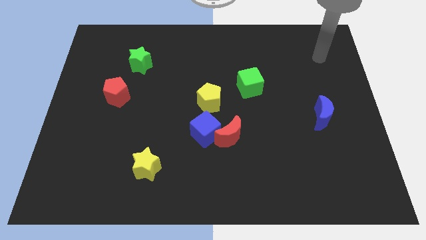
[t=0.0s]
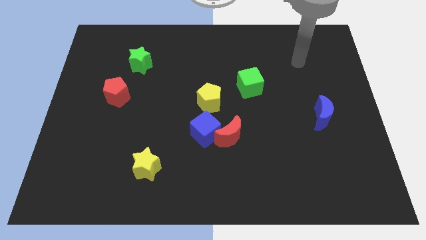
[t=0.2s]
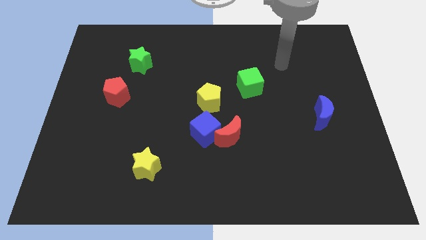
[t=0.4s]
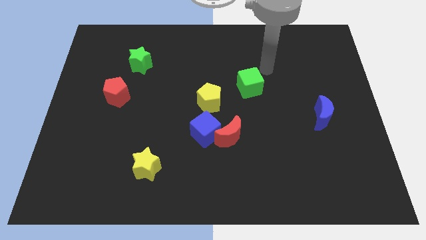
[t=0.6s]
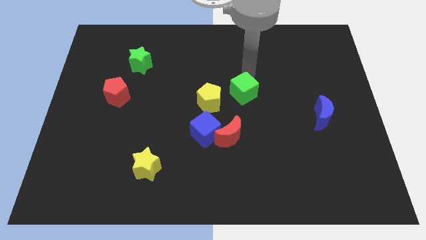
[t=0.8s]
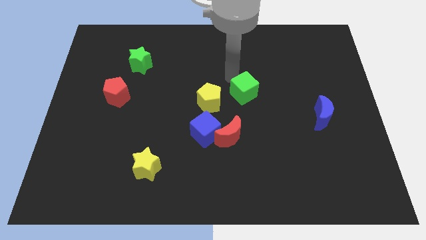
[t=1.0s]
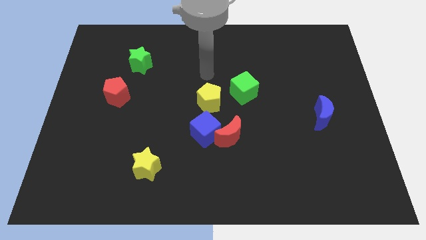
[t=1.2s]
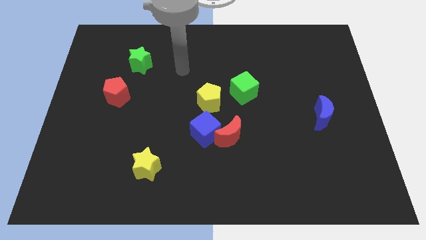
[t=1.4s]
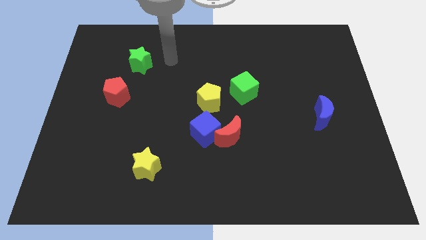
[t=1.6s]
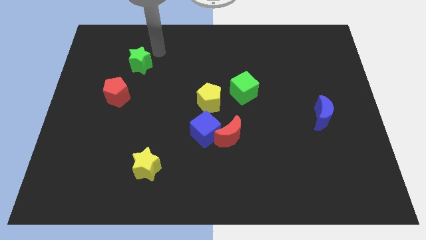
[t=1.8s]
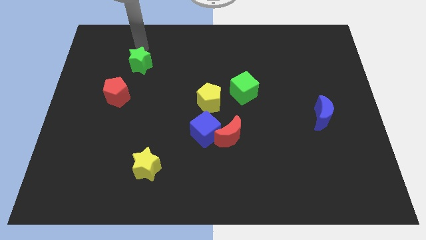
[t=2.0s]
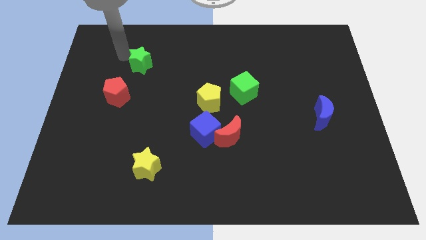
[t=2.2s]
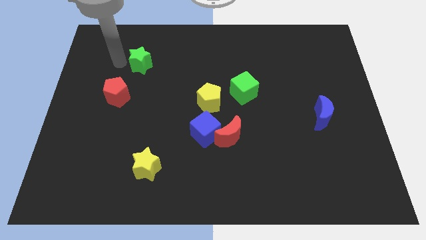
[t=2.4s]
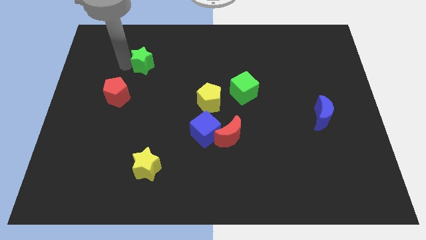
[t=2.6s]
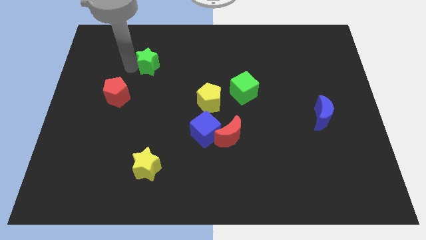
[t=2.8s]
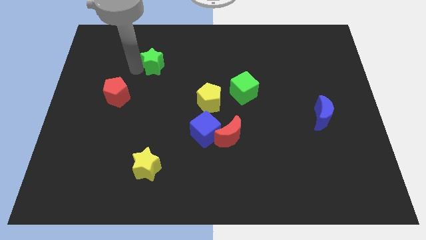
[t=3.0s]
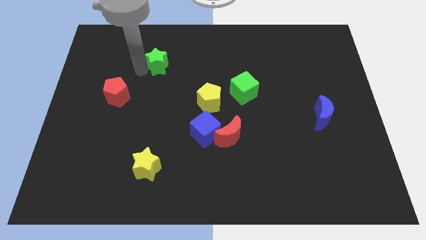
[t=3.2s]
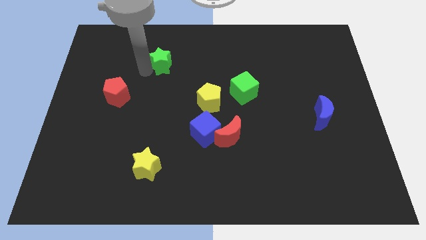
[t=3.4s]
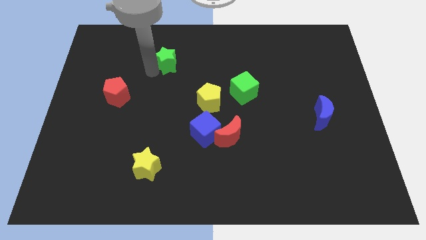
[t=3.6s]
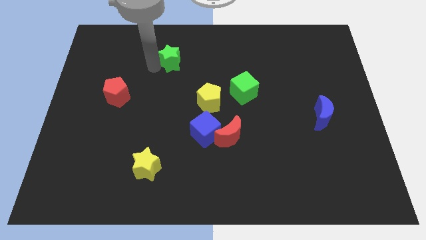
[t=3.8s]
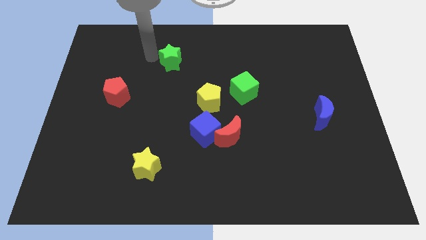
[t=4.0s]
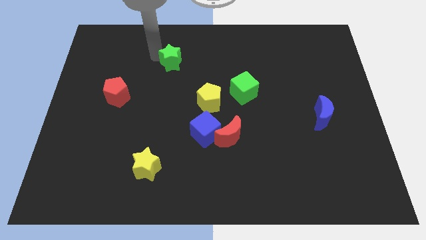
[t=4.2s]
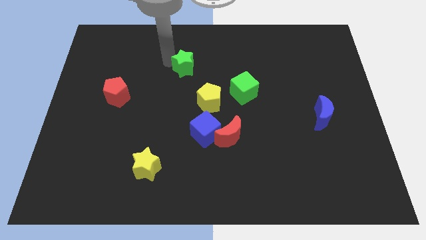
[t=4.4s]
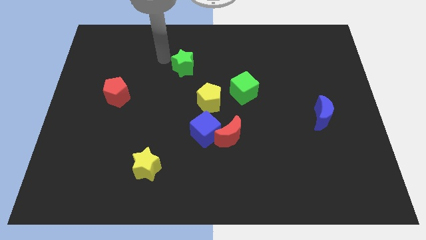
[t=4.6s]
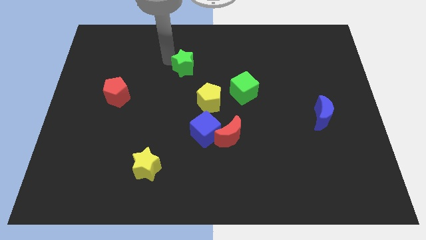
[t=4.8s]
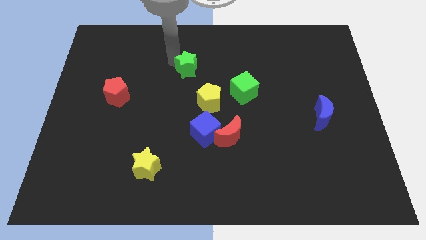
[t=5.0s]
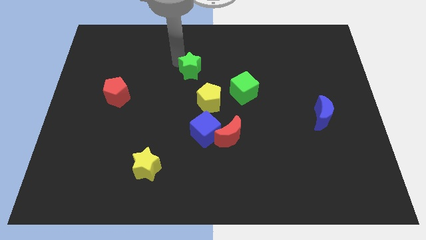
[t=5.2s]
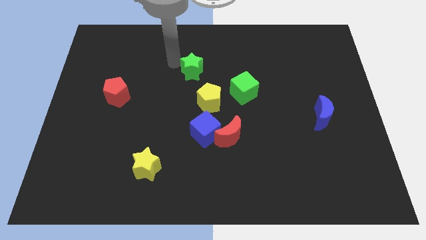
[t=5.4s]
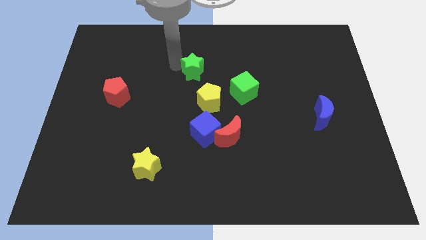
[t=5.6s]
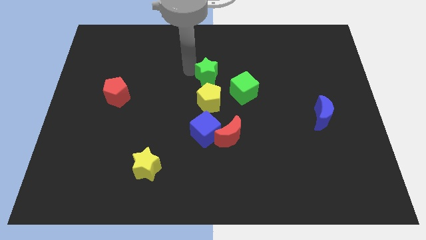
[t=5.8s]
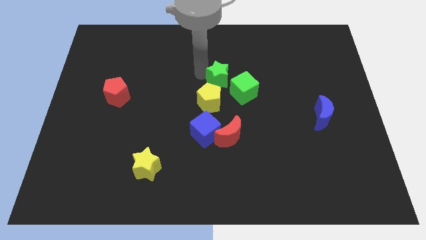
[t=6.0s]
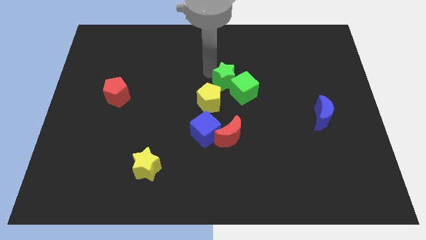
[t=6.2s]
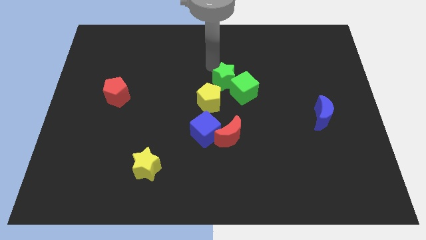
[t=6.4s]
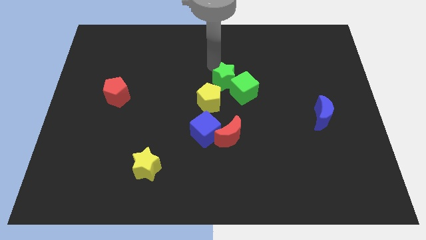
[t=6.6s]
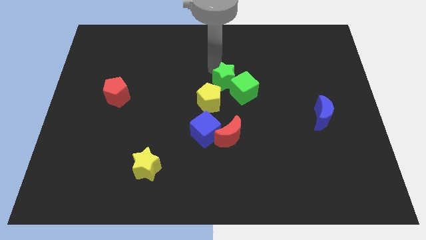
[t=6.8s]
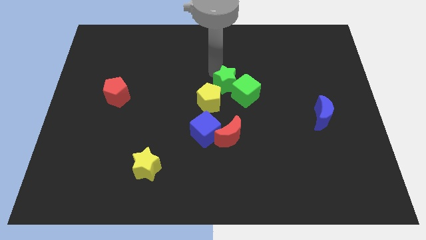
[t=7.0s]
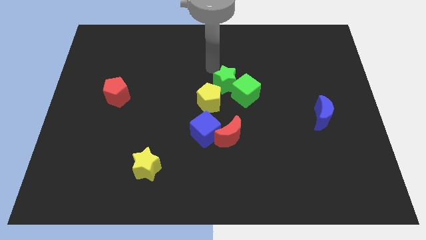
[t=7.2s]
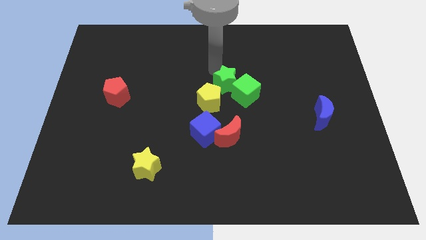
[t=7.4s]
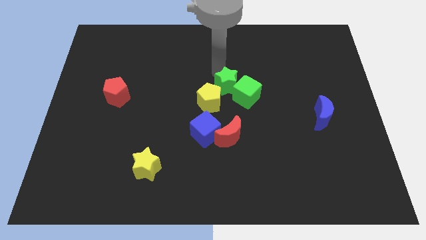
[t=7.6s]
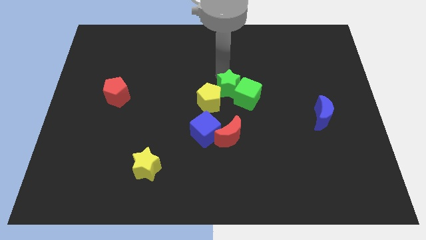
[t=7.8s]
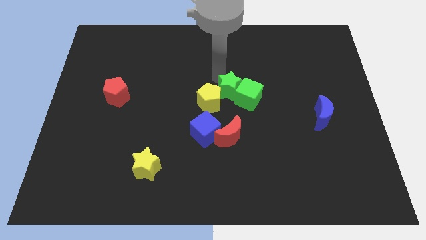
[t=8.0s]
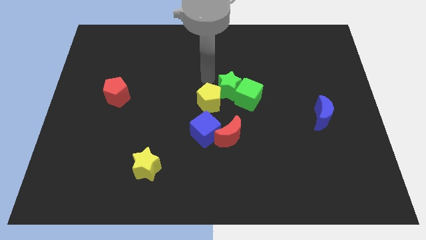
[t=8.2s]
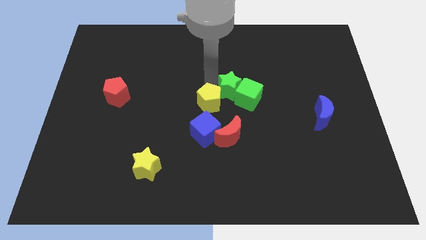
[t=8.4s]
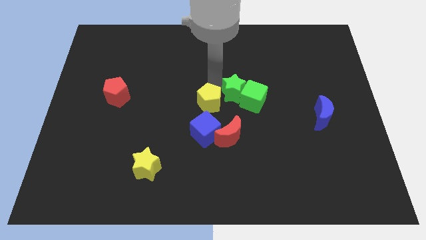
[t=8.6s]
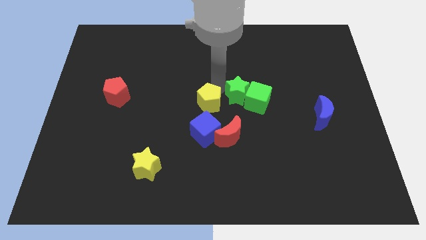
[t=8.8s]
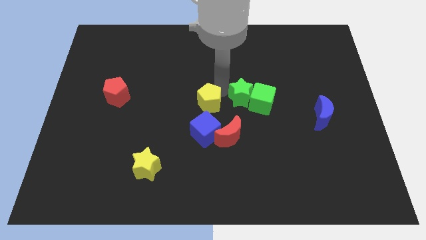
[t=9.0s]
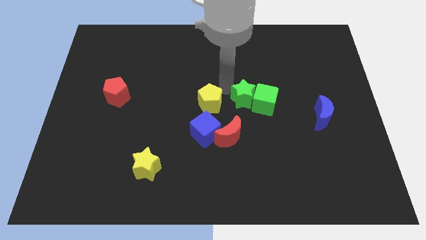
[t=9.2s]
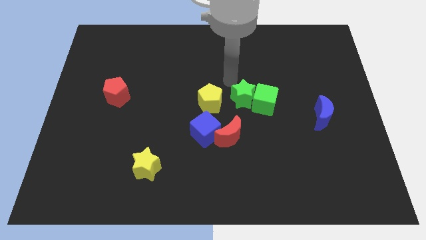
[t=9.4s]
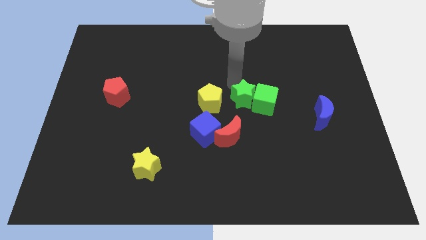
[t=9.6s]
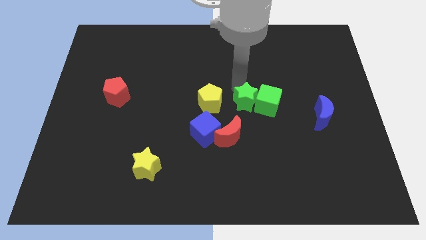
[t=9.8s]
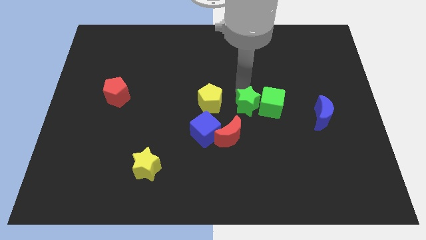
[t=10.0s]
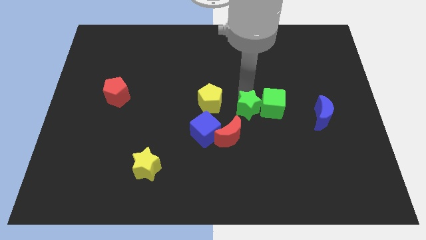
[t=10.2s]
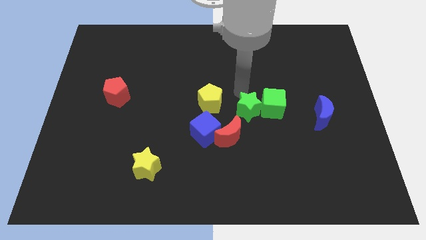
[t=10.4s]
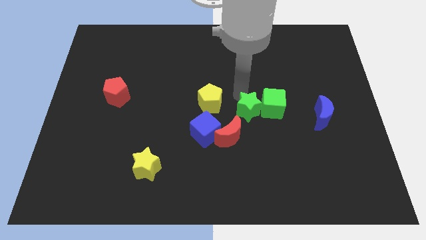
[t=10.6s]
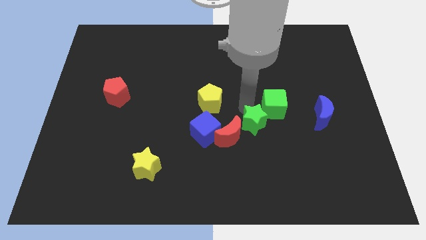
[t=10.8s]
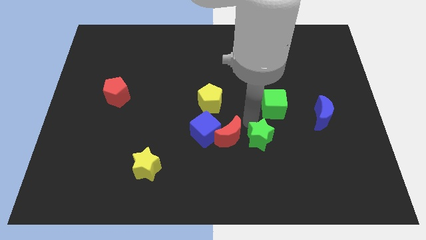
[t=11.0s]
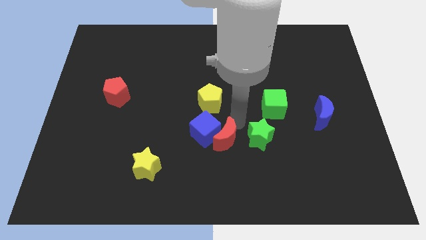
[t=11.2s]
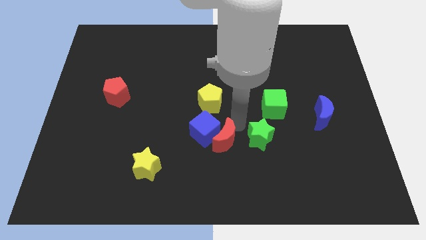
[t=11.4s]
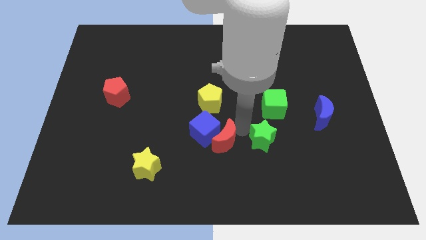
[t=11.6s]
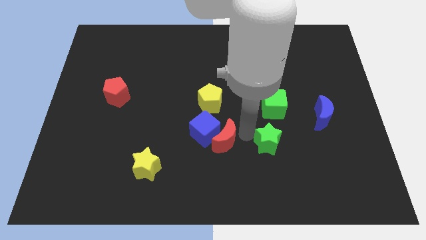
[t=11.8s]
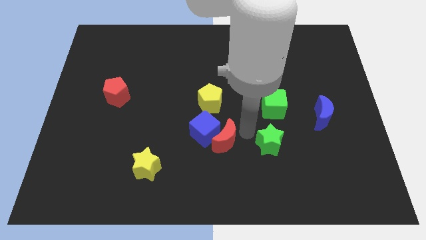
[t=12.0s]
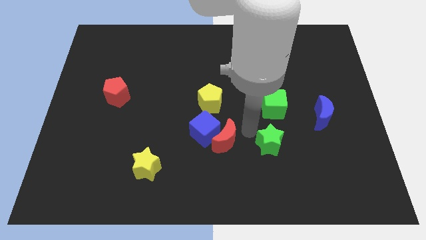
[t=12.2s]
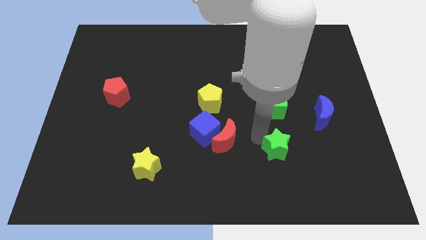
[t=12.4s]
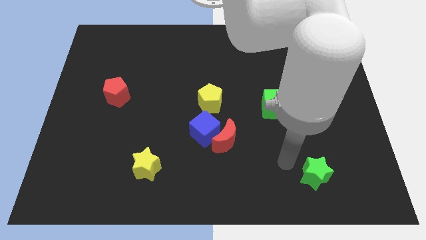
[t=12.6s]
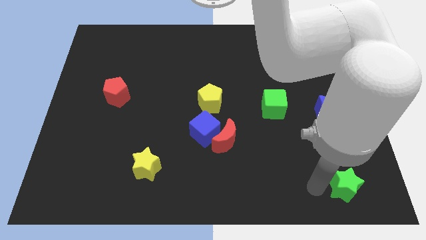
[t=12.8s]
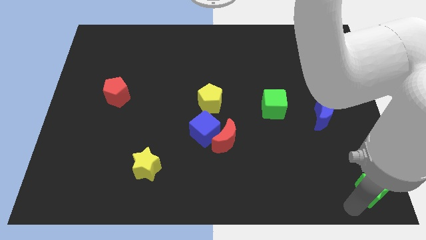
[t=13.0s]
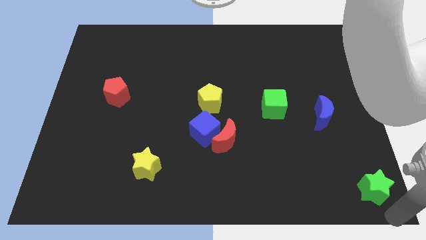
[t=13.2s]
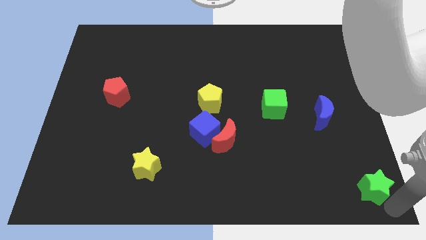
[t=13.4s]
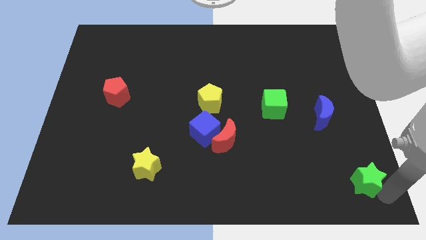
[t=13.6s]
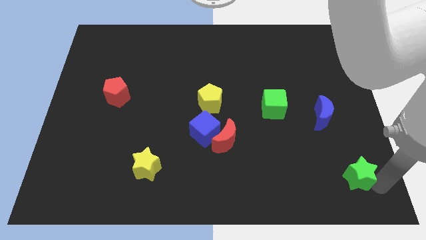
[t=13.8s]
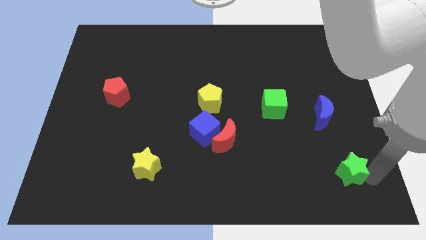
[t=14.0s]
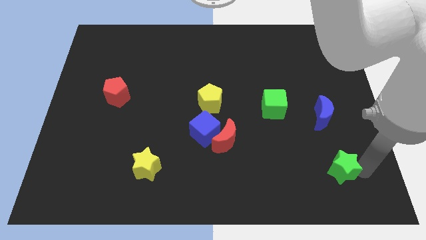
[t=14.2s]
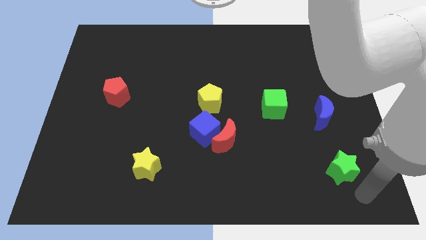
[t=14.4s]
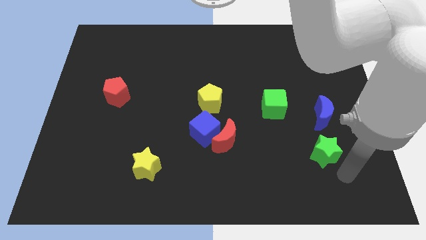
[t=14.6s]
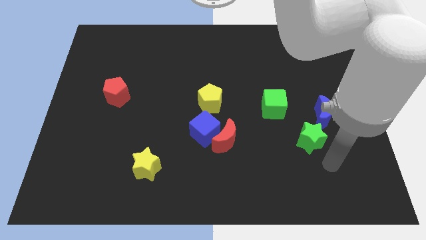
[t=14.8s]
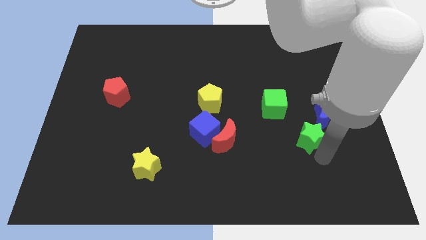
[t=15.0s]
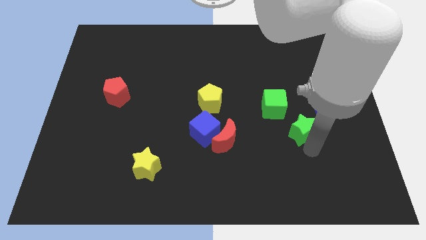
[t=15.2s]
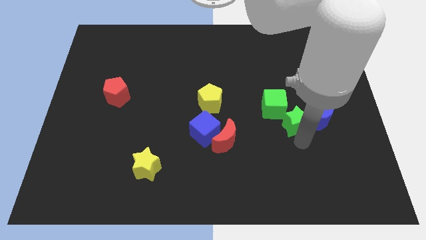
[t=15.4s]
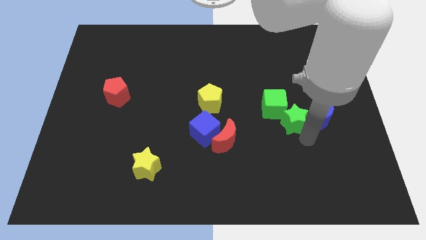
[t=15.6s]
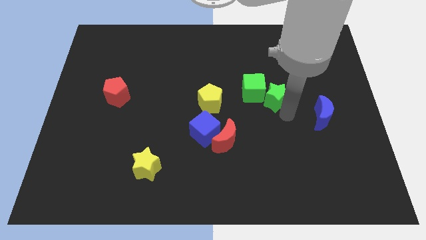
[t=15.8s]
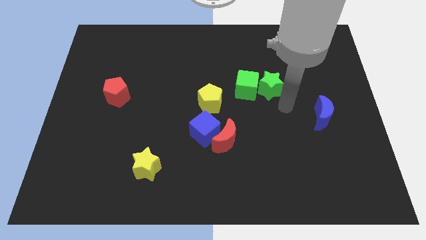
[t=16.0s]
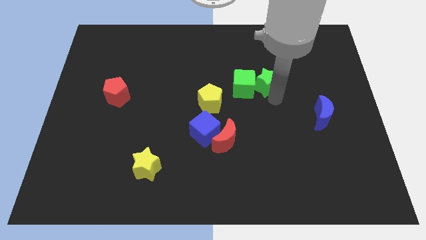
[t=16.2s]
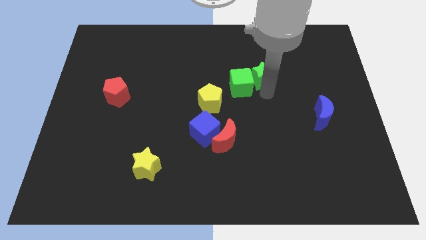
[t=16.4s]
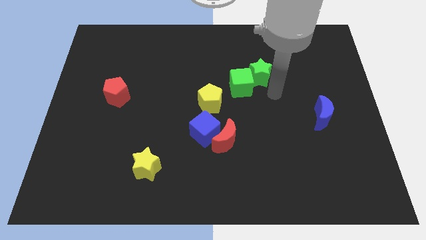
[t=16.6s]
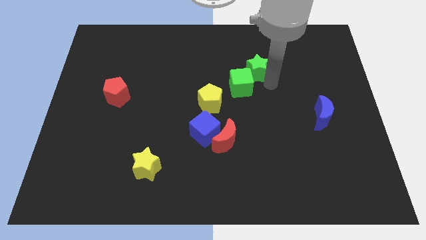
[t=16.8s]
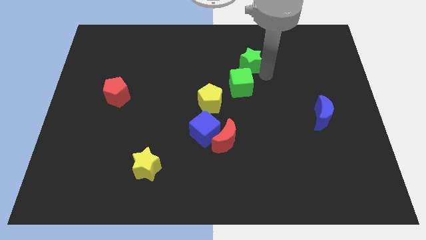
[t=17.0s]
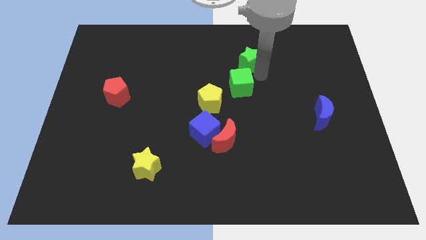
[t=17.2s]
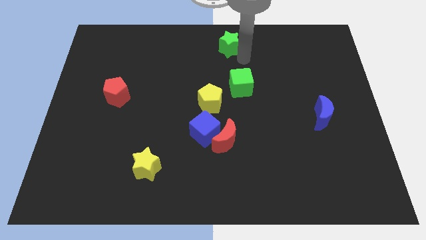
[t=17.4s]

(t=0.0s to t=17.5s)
push the green star to the top side
